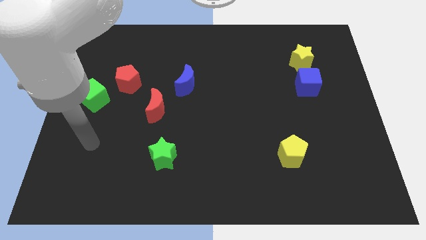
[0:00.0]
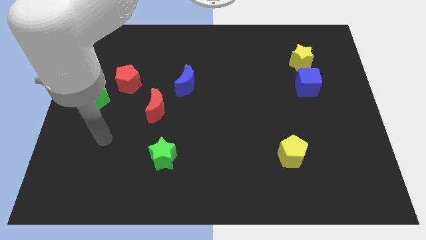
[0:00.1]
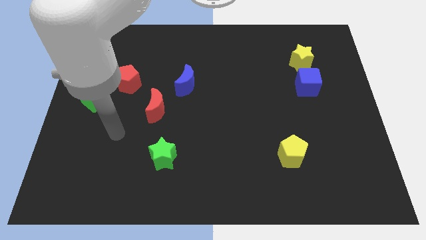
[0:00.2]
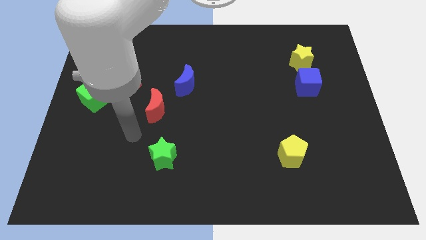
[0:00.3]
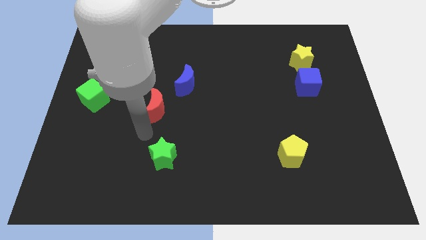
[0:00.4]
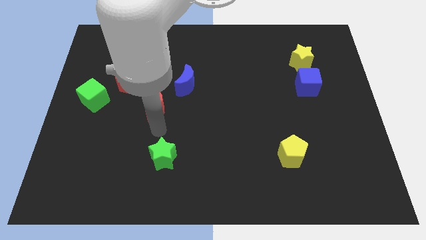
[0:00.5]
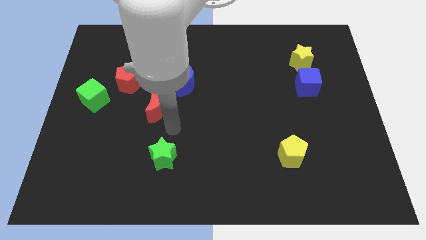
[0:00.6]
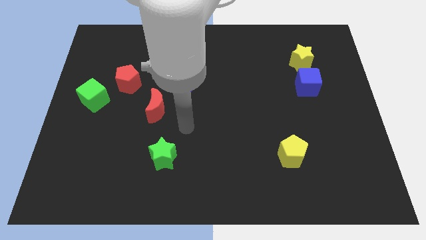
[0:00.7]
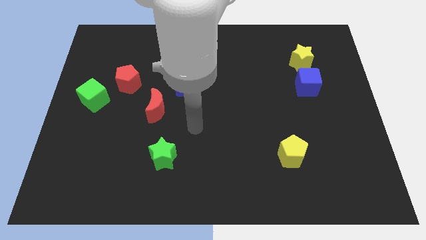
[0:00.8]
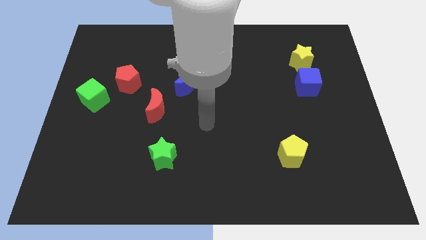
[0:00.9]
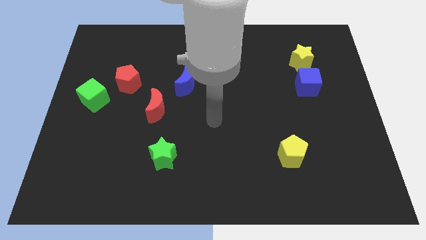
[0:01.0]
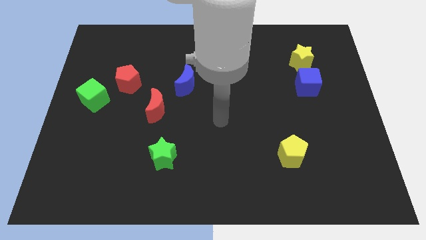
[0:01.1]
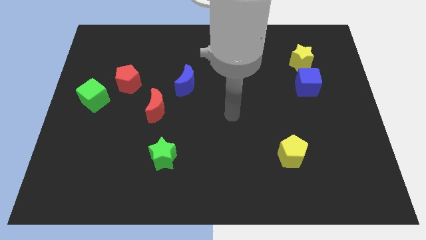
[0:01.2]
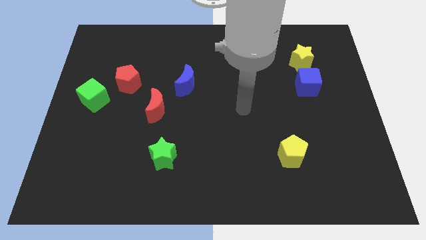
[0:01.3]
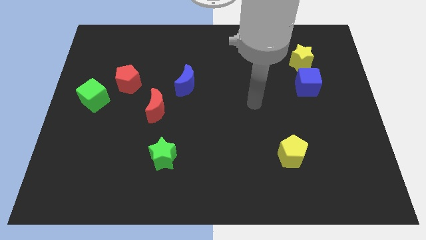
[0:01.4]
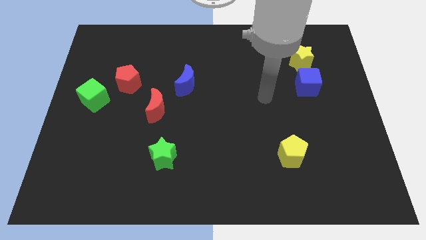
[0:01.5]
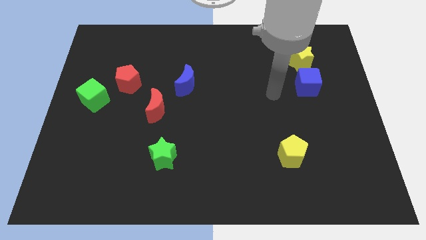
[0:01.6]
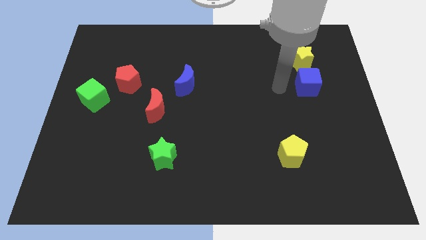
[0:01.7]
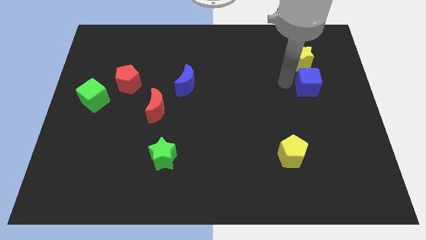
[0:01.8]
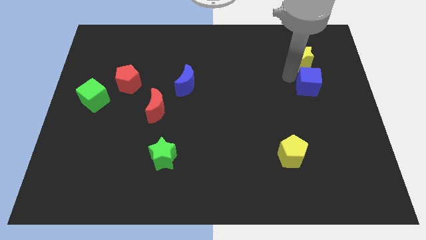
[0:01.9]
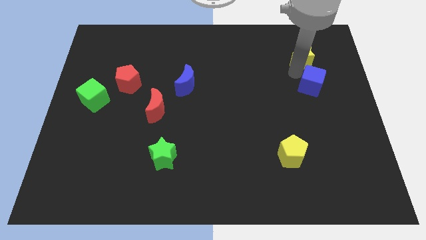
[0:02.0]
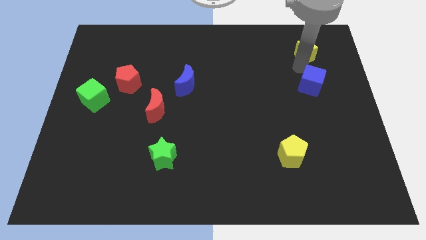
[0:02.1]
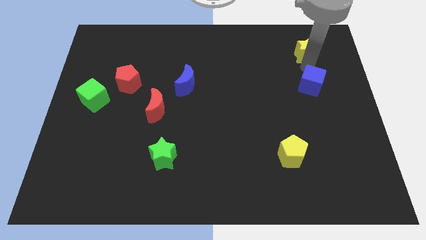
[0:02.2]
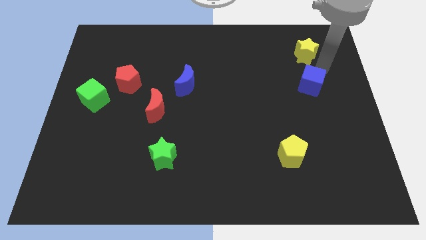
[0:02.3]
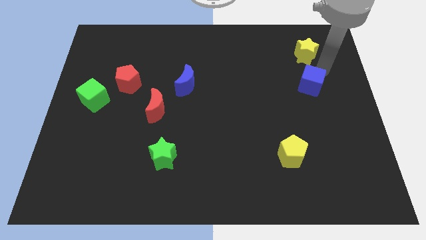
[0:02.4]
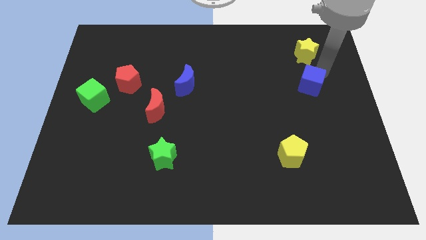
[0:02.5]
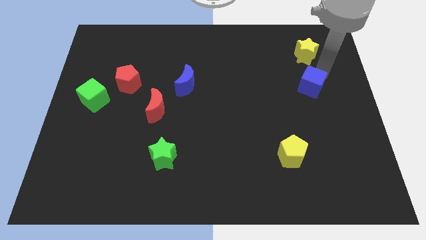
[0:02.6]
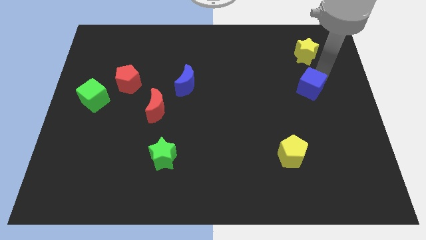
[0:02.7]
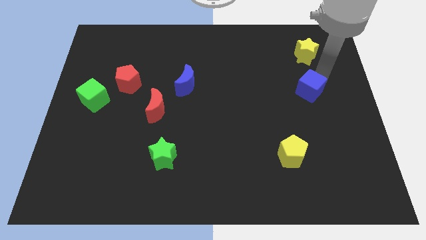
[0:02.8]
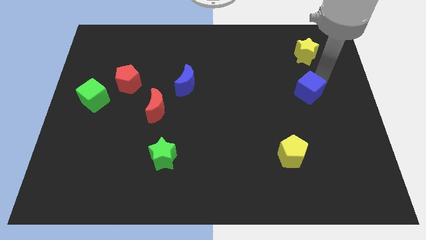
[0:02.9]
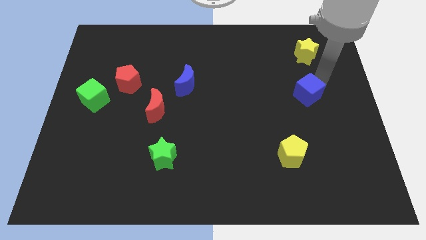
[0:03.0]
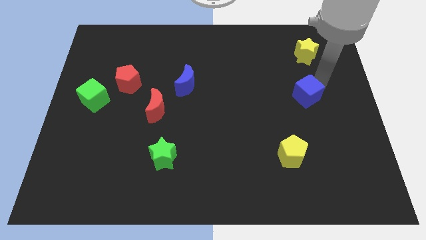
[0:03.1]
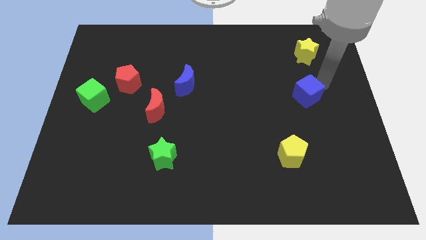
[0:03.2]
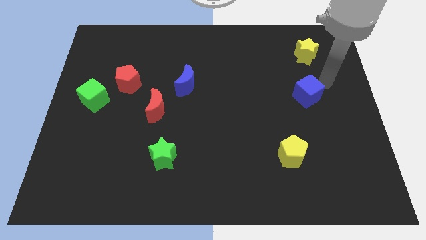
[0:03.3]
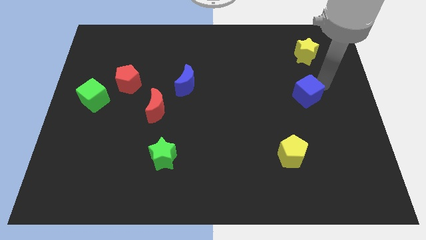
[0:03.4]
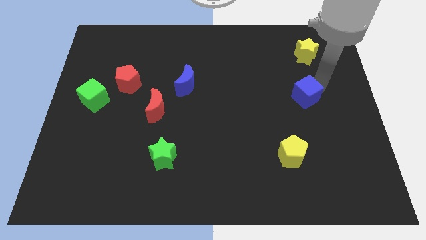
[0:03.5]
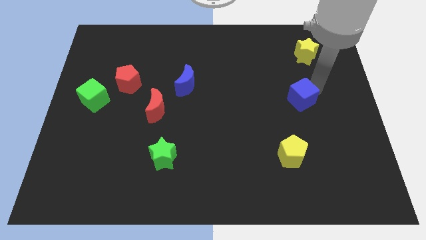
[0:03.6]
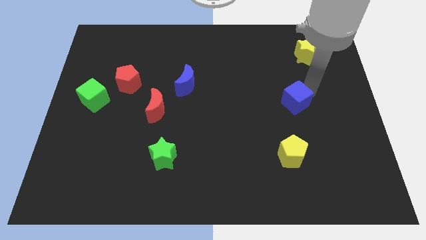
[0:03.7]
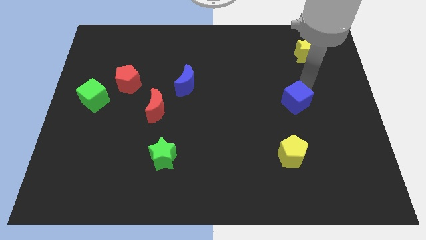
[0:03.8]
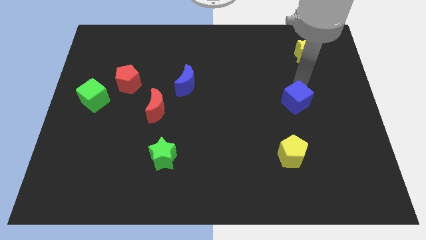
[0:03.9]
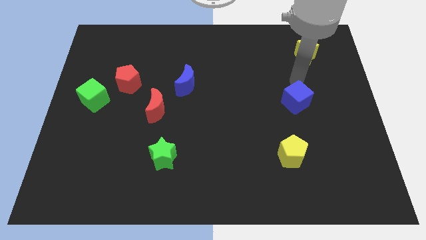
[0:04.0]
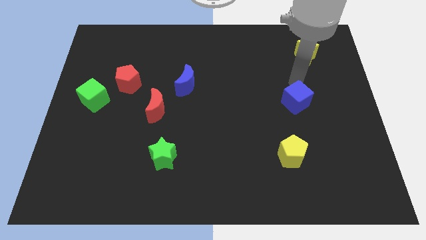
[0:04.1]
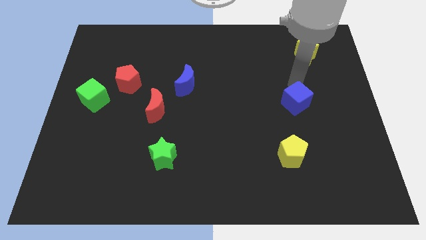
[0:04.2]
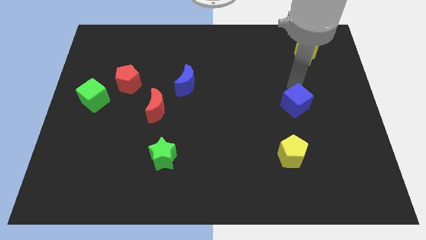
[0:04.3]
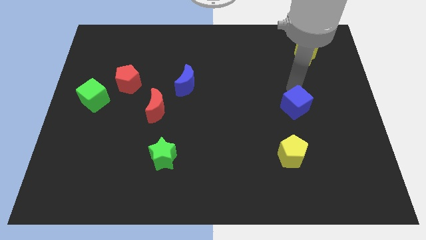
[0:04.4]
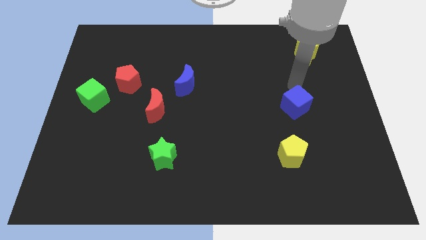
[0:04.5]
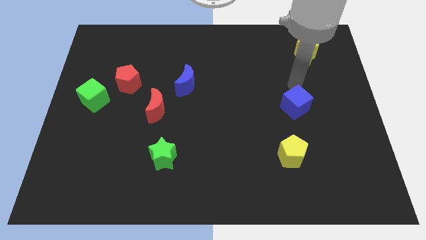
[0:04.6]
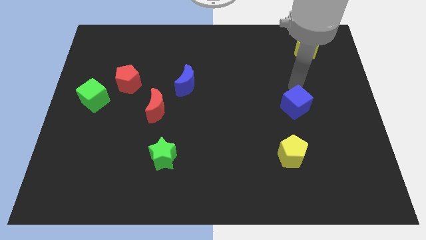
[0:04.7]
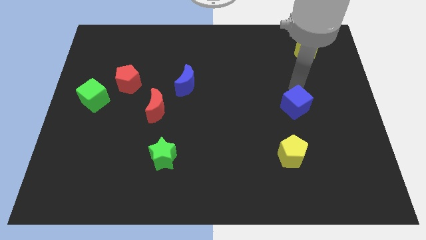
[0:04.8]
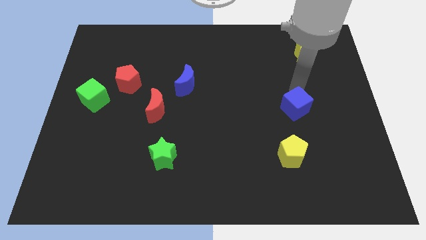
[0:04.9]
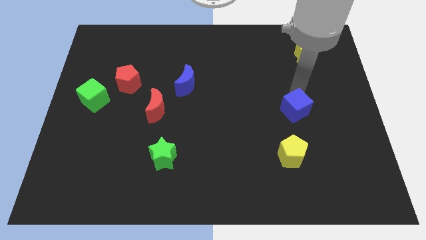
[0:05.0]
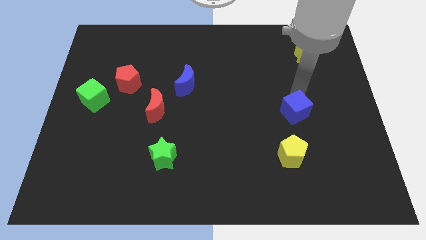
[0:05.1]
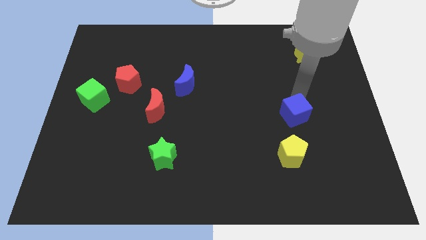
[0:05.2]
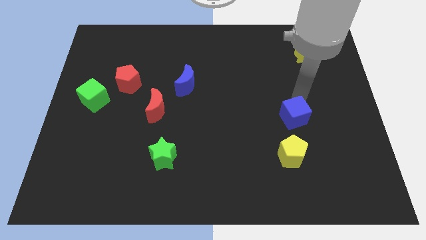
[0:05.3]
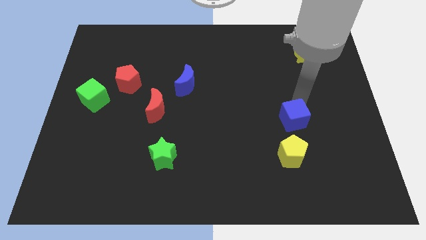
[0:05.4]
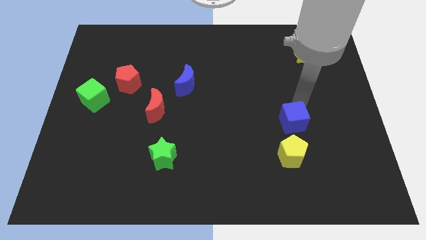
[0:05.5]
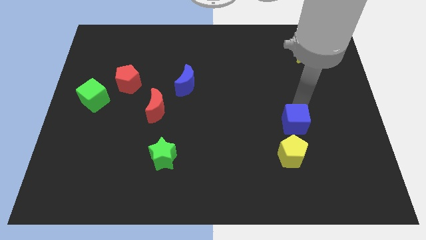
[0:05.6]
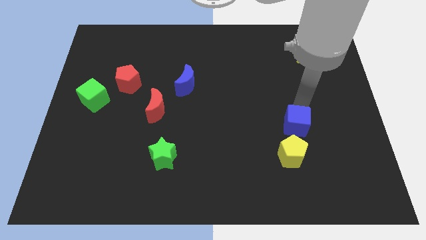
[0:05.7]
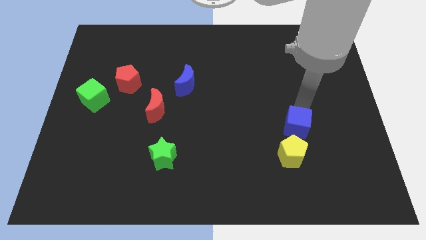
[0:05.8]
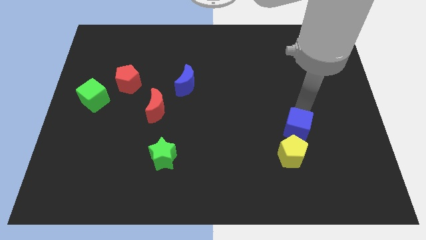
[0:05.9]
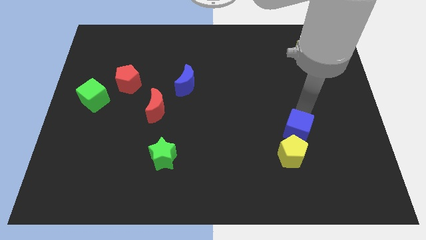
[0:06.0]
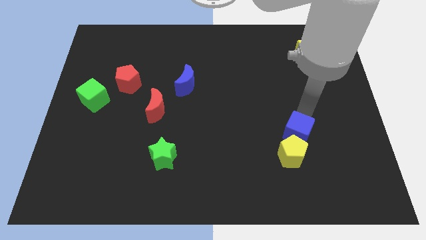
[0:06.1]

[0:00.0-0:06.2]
push the blue cube next to the yellow pentagon

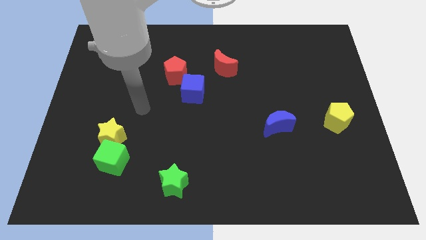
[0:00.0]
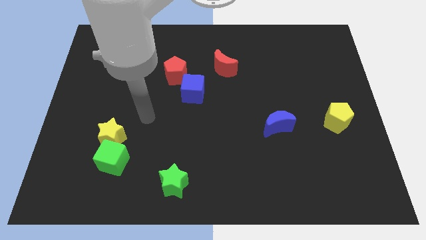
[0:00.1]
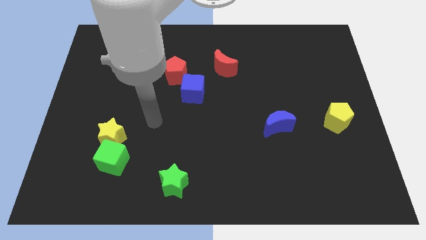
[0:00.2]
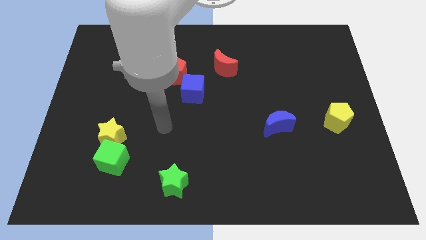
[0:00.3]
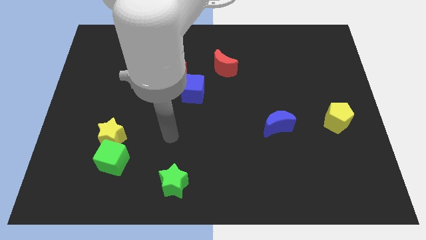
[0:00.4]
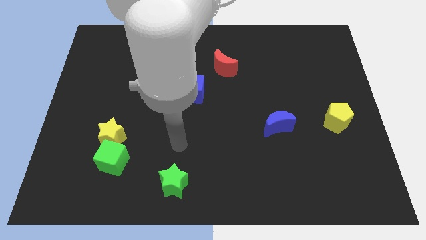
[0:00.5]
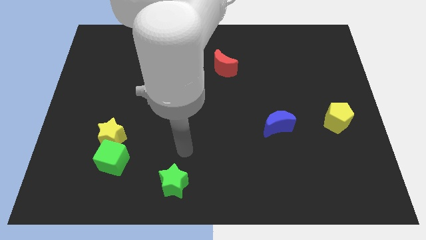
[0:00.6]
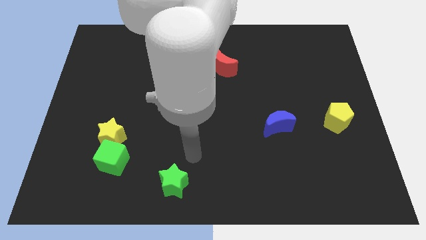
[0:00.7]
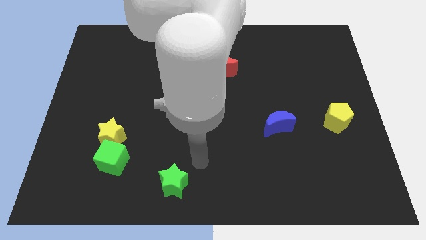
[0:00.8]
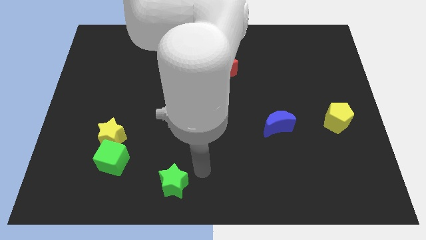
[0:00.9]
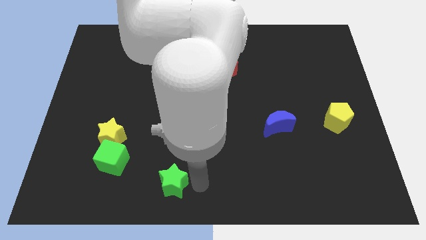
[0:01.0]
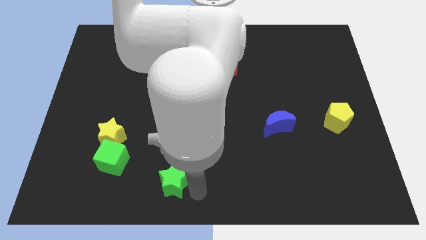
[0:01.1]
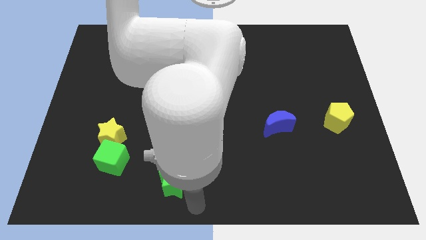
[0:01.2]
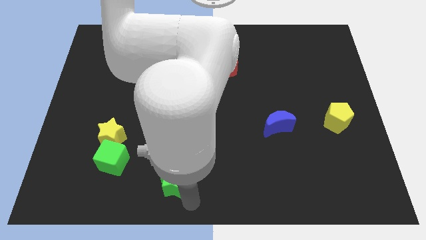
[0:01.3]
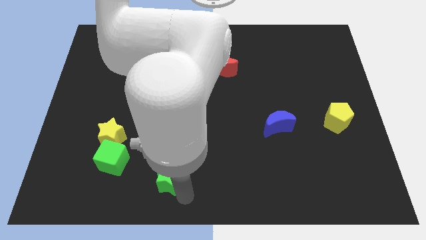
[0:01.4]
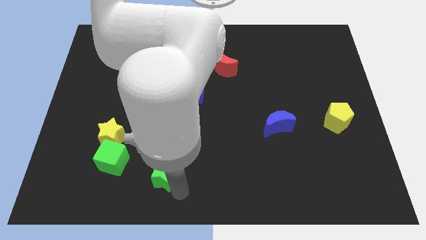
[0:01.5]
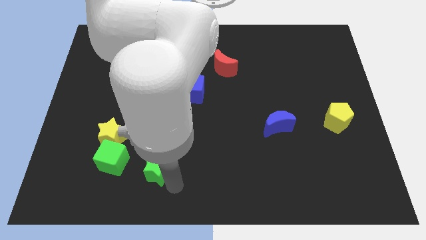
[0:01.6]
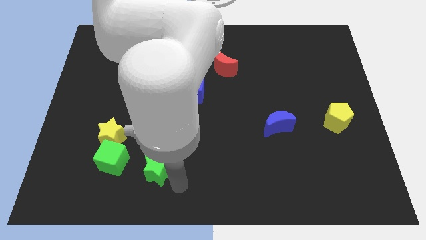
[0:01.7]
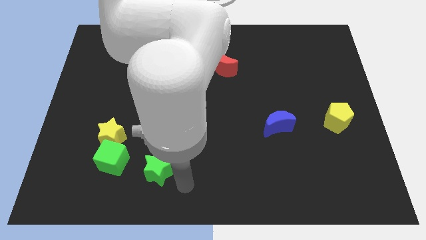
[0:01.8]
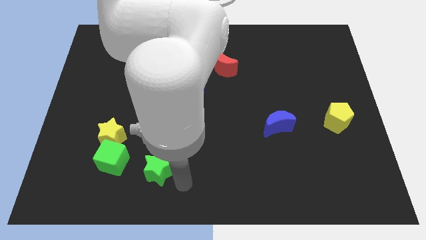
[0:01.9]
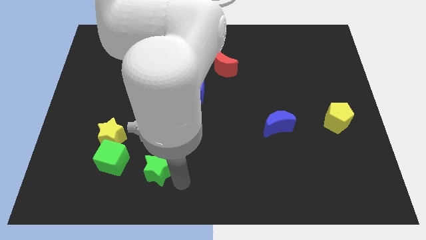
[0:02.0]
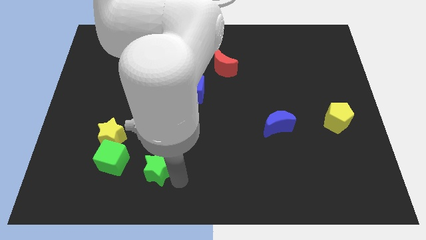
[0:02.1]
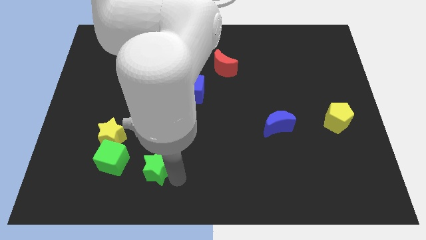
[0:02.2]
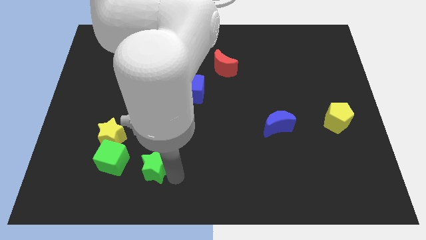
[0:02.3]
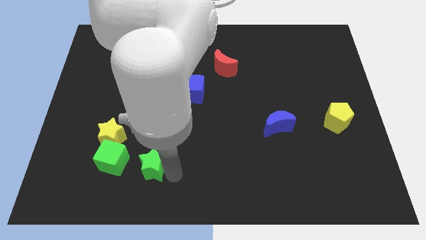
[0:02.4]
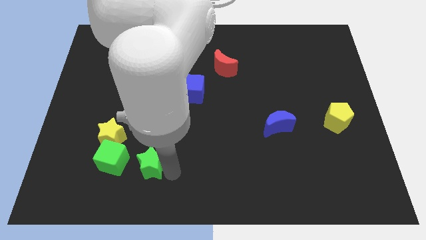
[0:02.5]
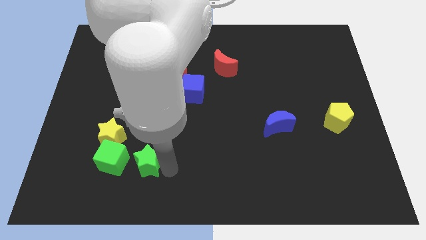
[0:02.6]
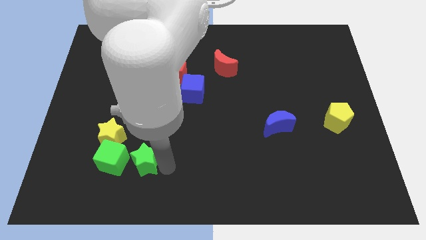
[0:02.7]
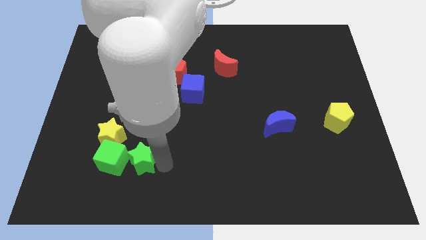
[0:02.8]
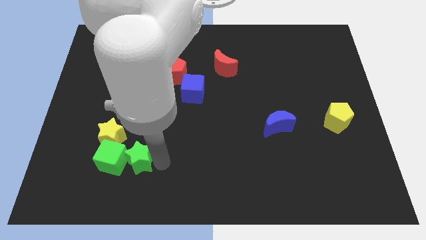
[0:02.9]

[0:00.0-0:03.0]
push the green star to the green cube
